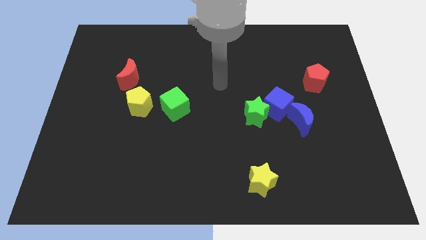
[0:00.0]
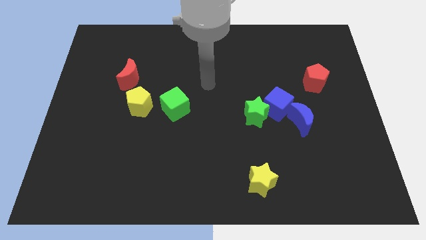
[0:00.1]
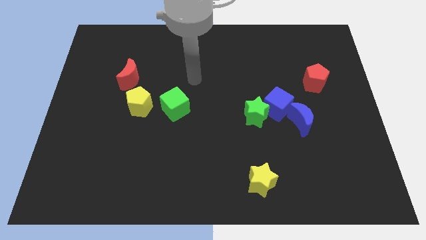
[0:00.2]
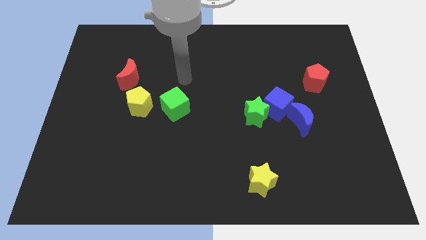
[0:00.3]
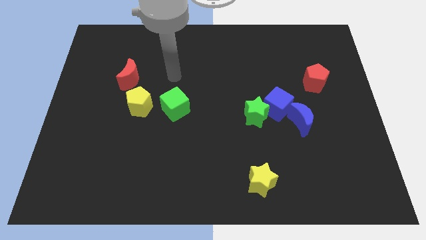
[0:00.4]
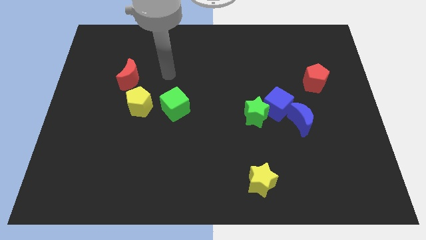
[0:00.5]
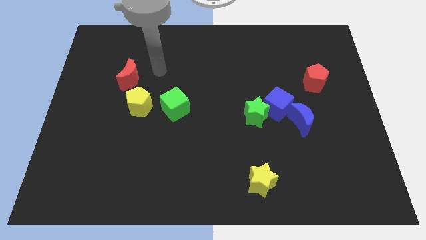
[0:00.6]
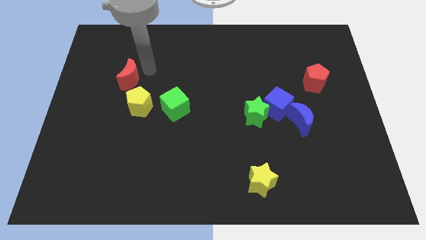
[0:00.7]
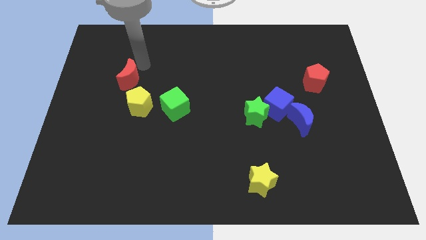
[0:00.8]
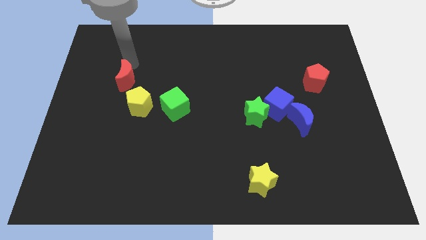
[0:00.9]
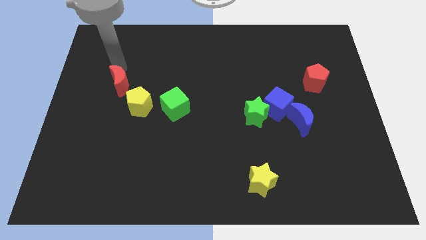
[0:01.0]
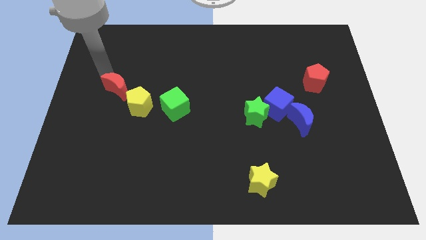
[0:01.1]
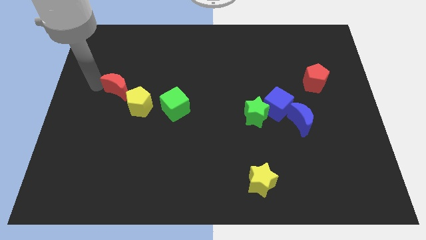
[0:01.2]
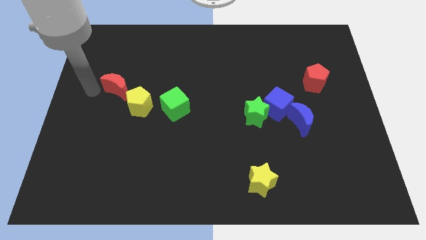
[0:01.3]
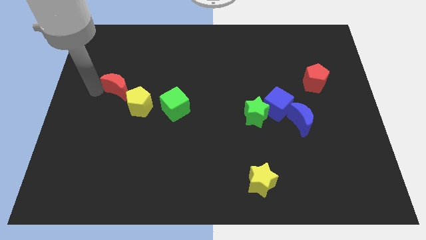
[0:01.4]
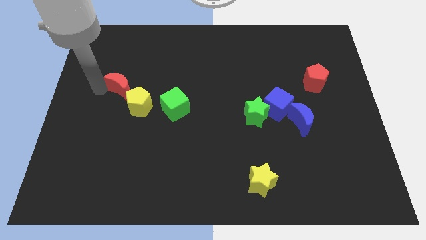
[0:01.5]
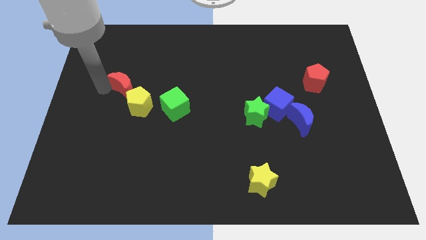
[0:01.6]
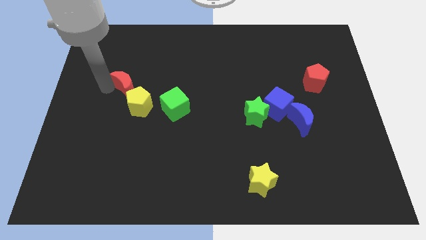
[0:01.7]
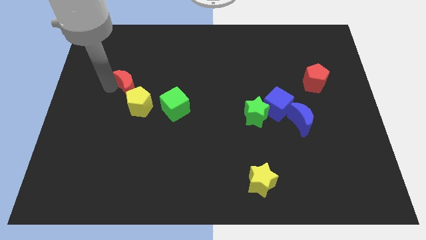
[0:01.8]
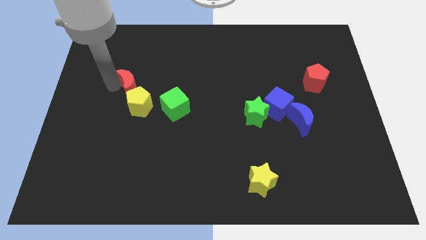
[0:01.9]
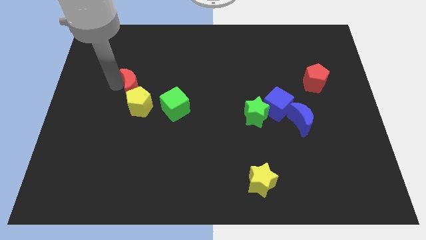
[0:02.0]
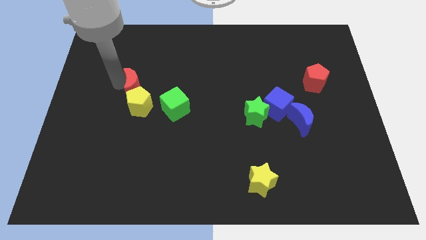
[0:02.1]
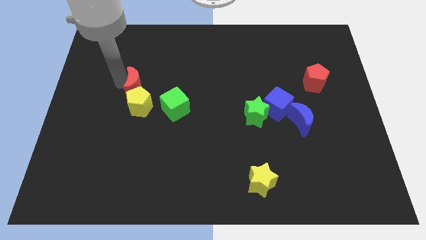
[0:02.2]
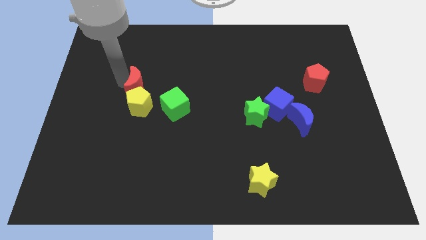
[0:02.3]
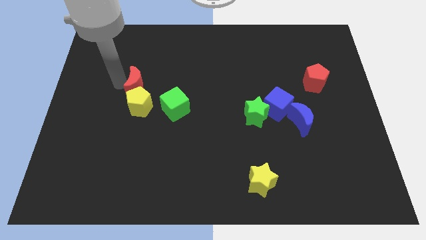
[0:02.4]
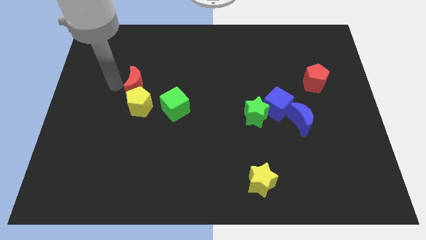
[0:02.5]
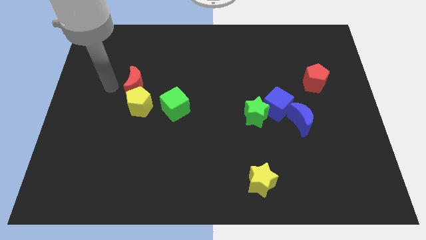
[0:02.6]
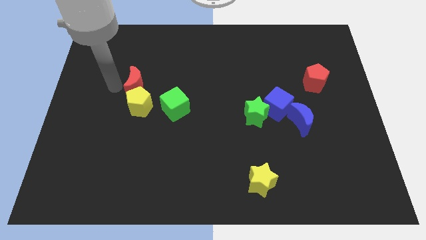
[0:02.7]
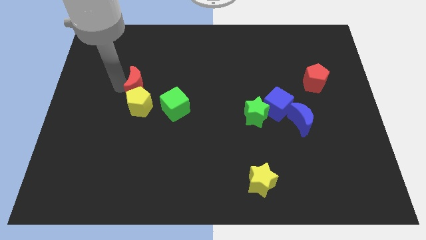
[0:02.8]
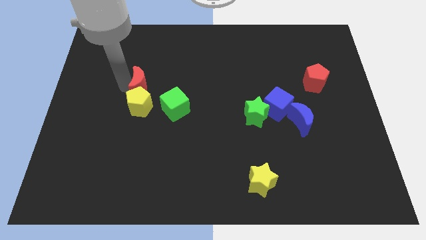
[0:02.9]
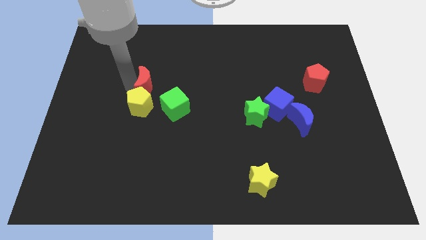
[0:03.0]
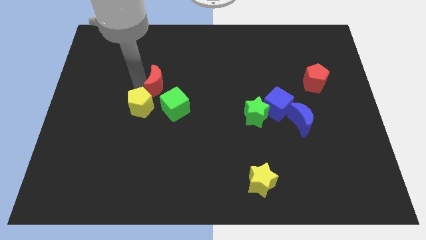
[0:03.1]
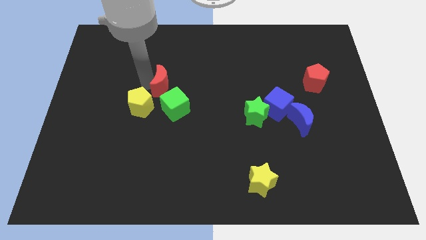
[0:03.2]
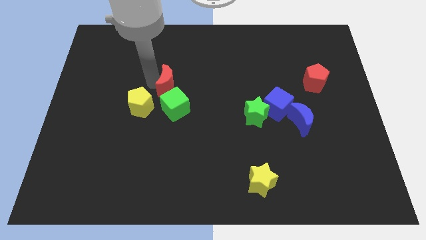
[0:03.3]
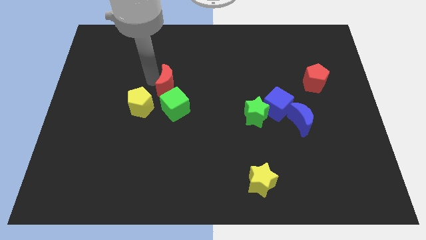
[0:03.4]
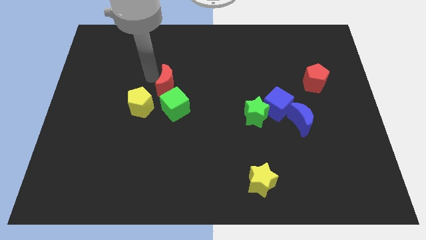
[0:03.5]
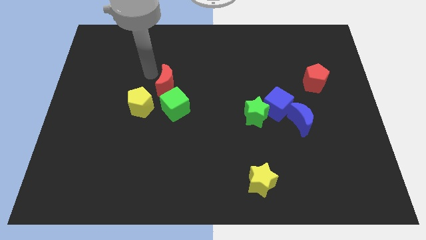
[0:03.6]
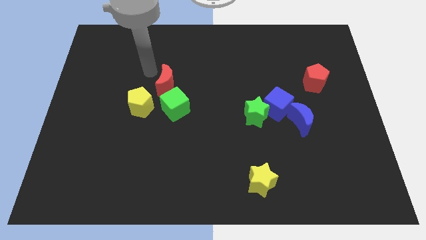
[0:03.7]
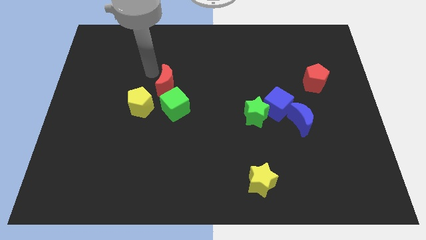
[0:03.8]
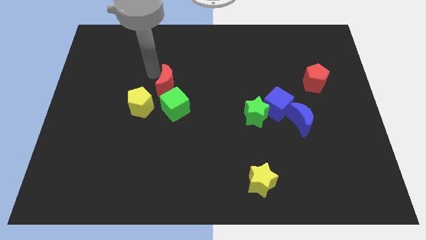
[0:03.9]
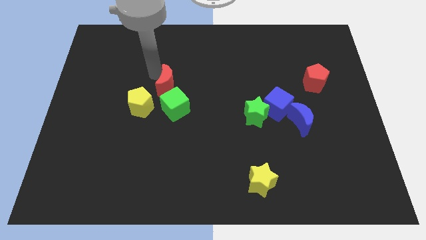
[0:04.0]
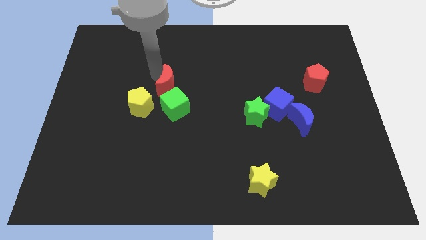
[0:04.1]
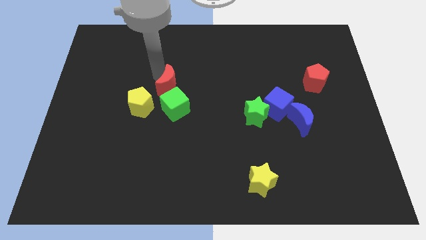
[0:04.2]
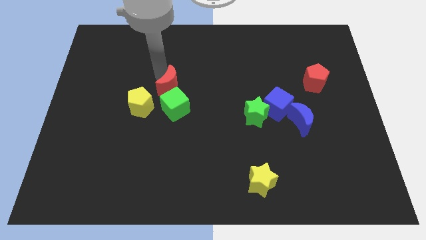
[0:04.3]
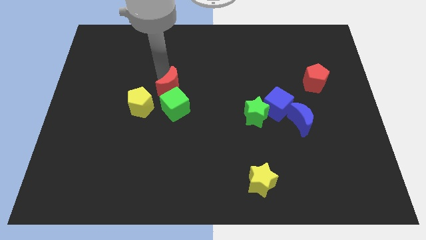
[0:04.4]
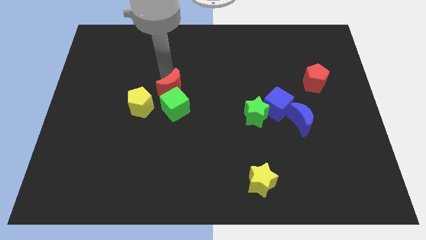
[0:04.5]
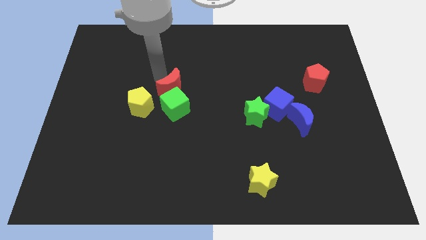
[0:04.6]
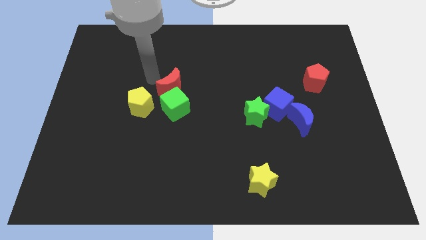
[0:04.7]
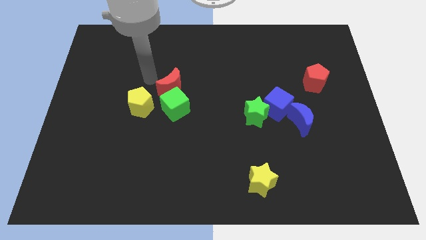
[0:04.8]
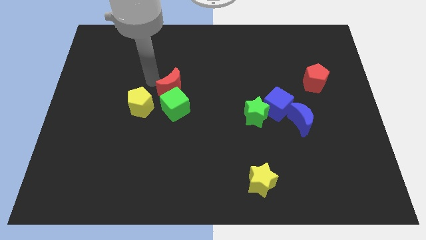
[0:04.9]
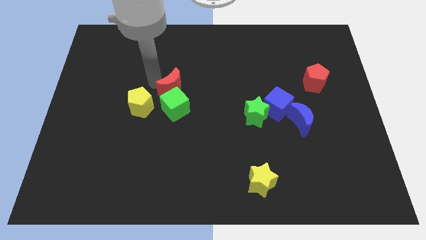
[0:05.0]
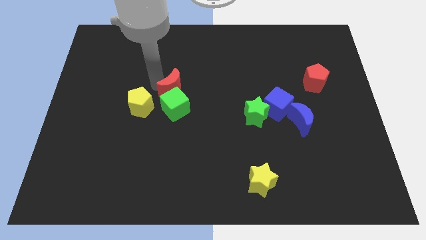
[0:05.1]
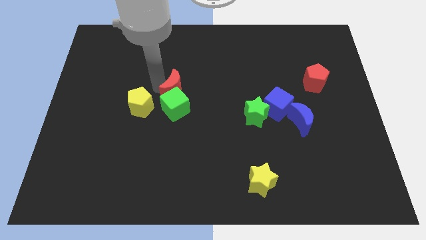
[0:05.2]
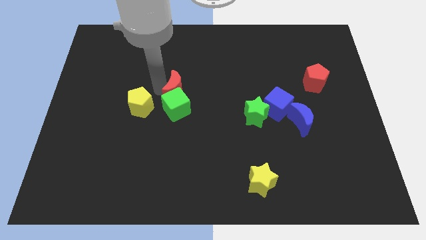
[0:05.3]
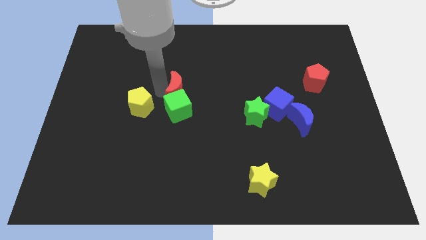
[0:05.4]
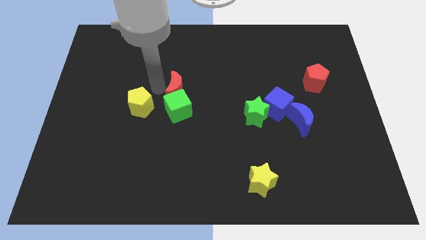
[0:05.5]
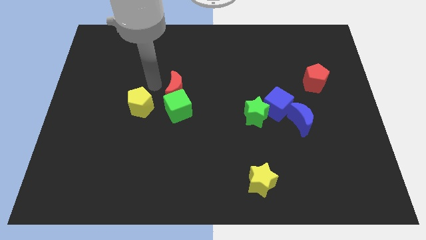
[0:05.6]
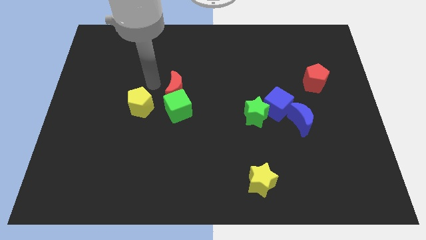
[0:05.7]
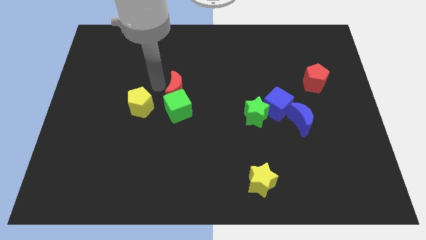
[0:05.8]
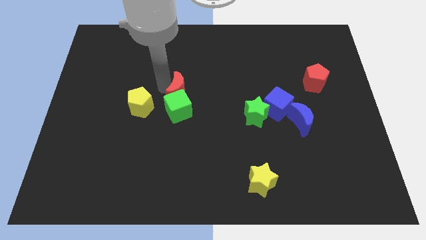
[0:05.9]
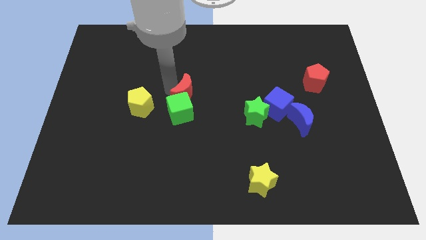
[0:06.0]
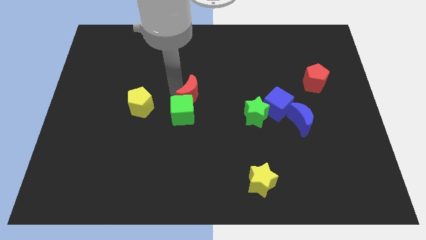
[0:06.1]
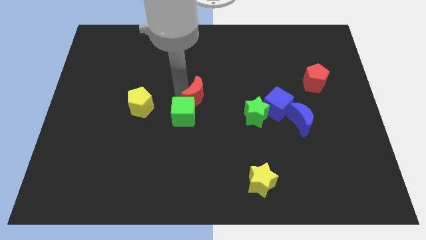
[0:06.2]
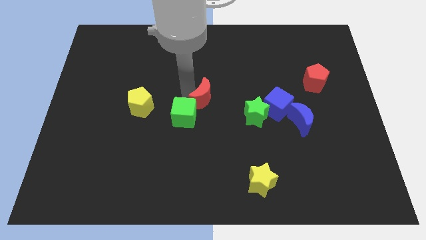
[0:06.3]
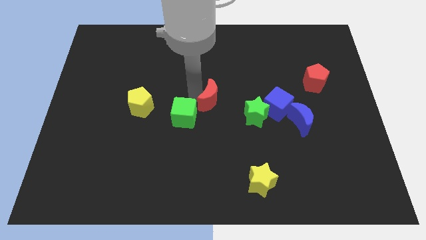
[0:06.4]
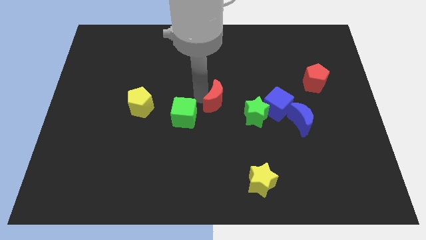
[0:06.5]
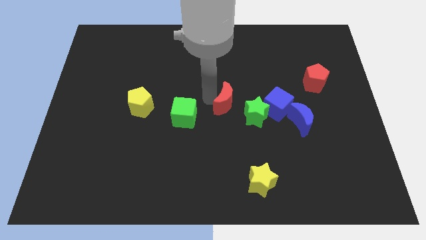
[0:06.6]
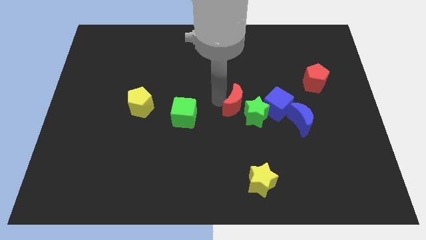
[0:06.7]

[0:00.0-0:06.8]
move the red moon to the green star

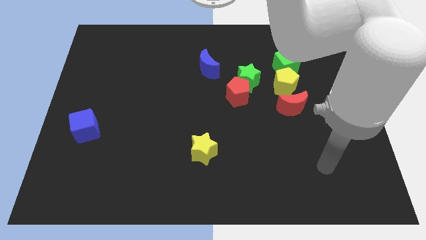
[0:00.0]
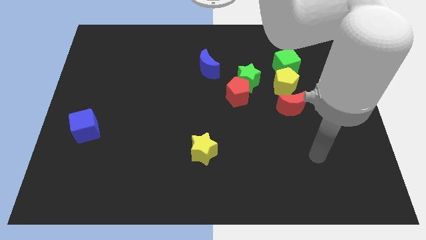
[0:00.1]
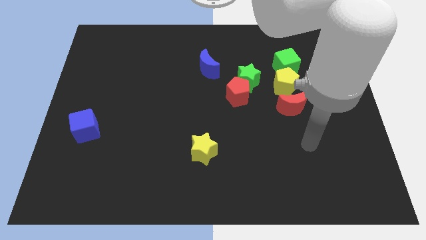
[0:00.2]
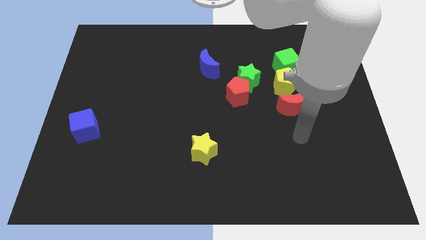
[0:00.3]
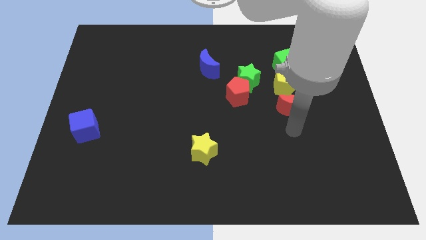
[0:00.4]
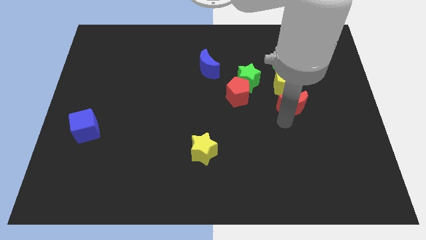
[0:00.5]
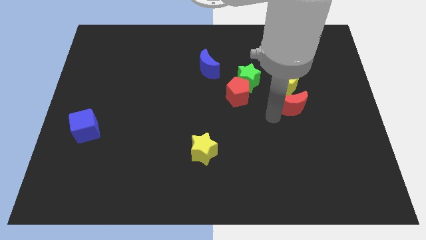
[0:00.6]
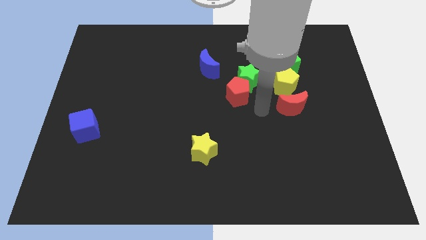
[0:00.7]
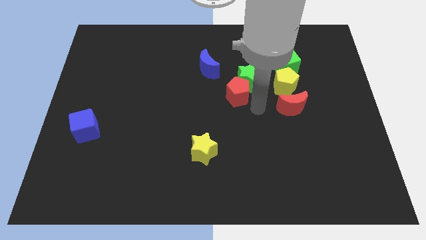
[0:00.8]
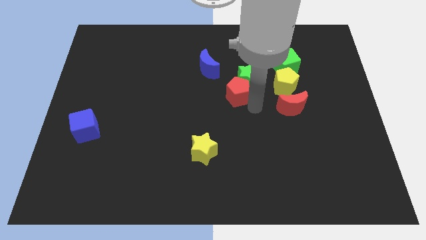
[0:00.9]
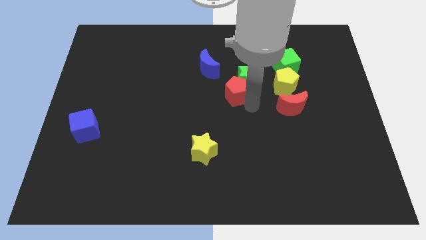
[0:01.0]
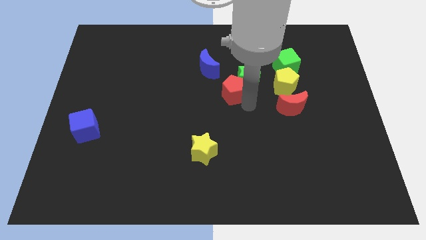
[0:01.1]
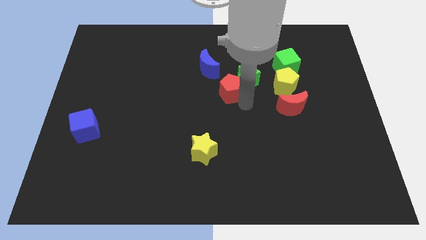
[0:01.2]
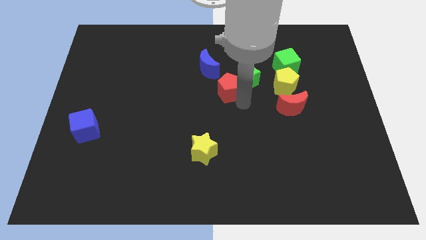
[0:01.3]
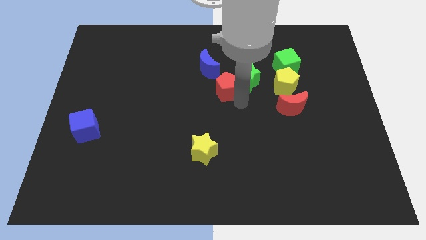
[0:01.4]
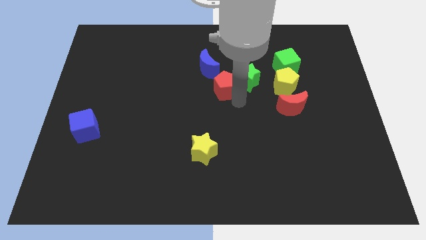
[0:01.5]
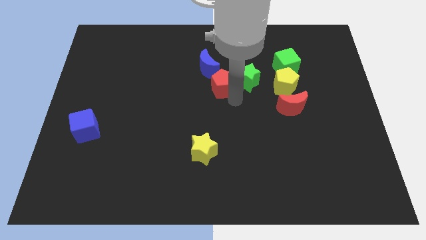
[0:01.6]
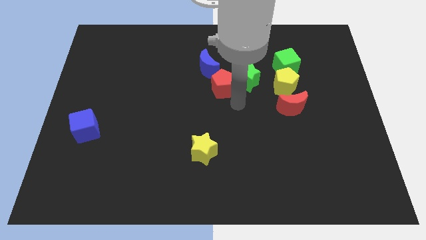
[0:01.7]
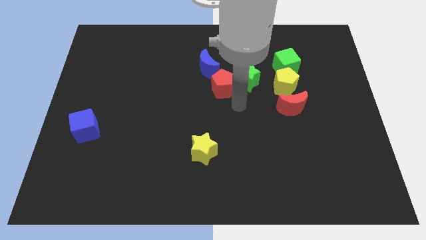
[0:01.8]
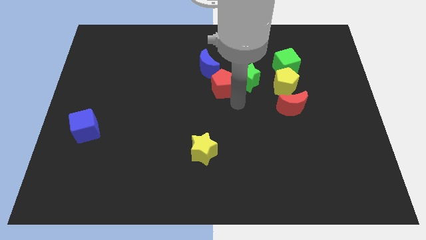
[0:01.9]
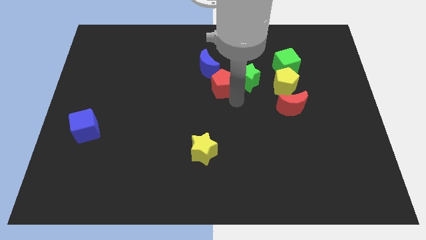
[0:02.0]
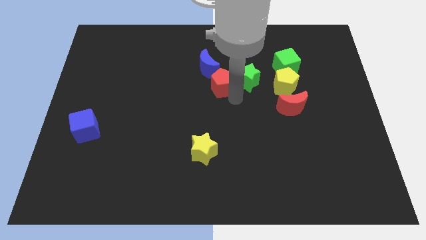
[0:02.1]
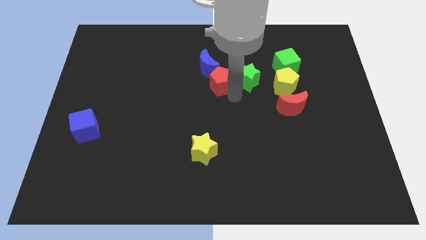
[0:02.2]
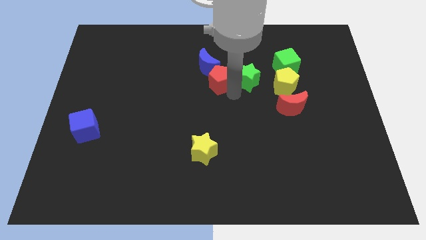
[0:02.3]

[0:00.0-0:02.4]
push the red pentagon towards the blue moon
